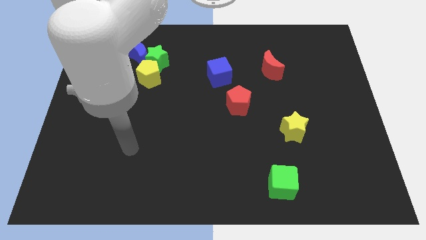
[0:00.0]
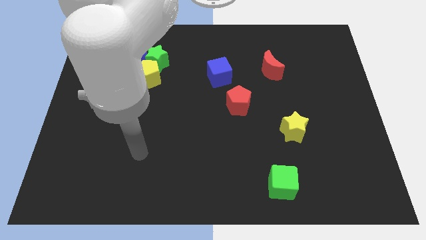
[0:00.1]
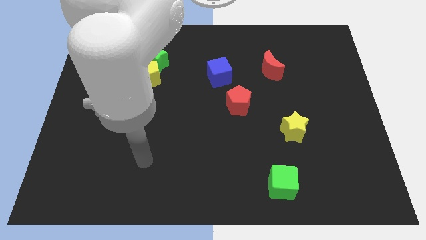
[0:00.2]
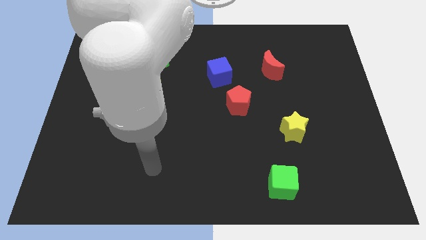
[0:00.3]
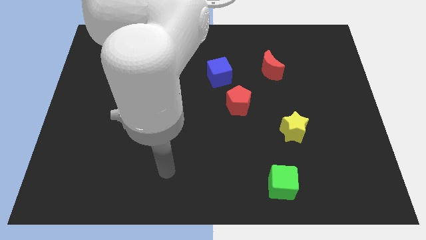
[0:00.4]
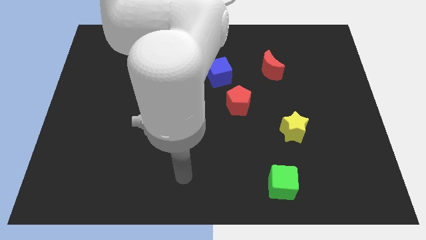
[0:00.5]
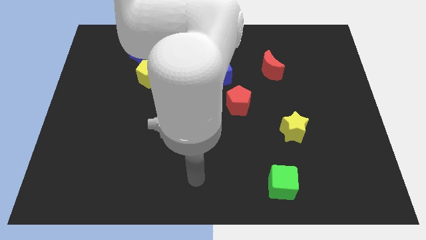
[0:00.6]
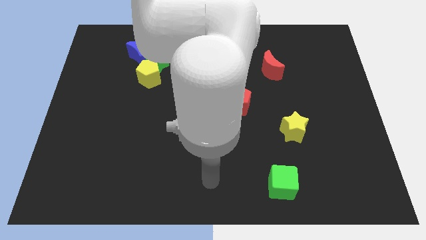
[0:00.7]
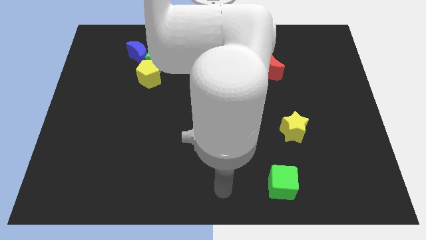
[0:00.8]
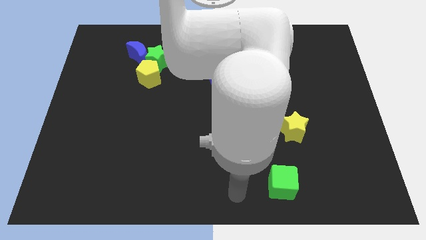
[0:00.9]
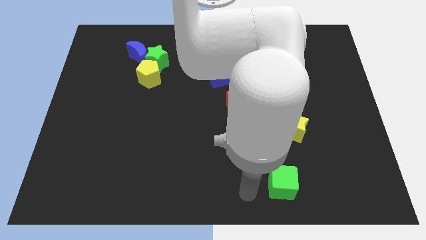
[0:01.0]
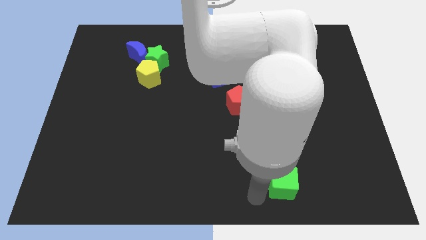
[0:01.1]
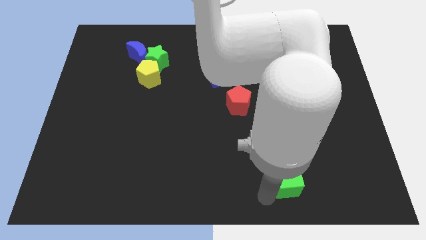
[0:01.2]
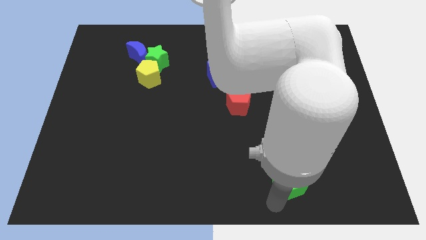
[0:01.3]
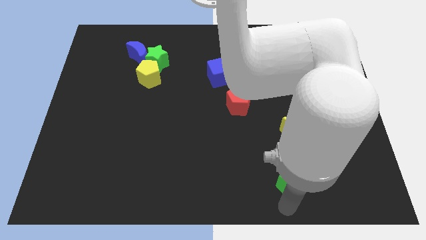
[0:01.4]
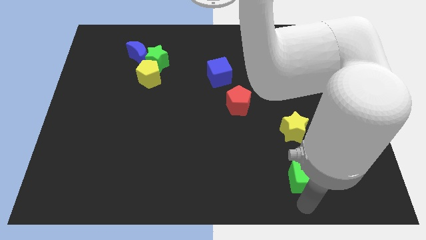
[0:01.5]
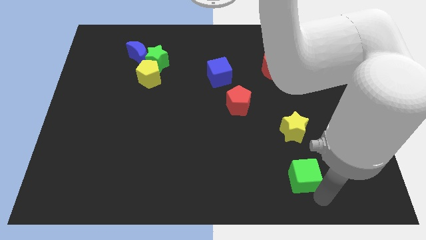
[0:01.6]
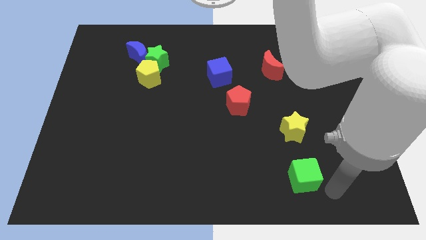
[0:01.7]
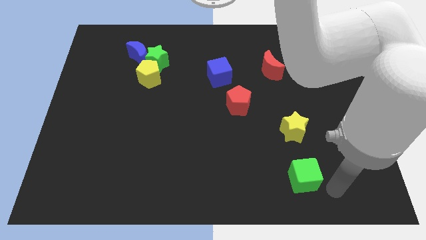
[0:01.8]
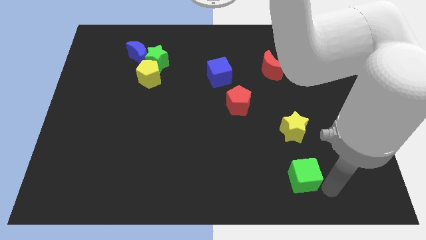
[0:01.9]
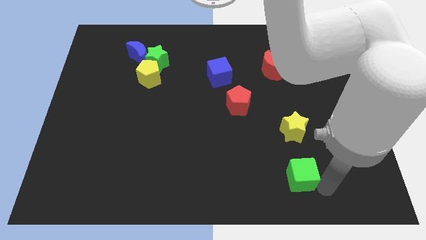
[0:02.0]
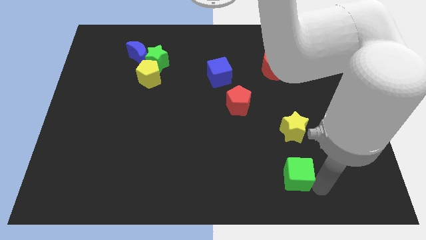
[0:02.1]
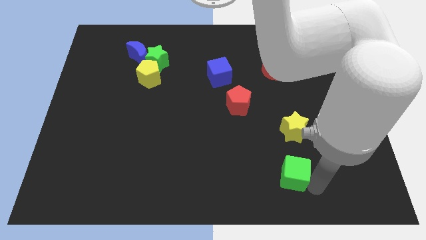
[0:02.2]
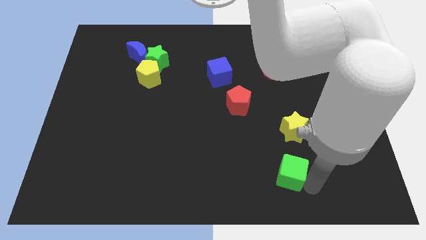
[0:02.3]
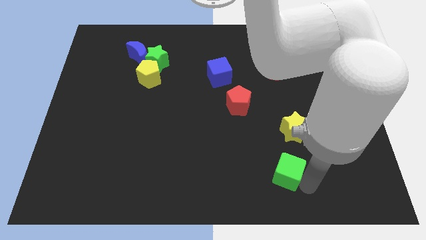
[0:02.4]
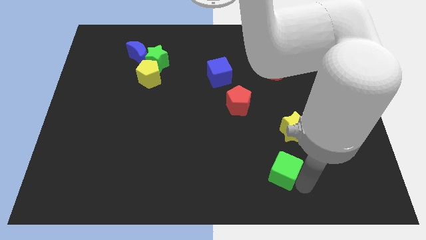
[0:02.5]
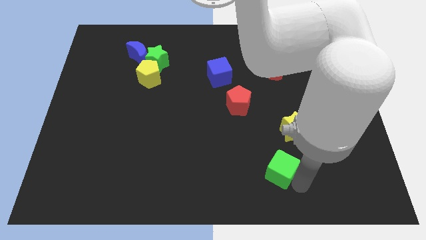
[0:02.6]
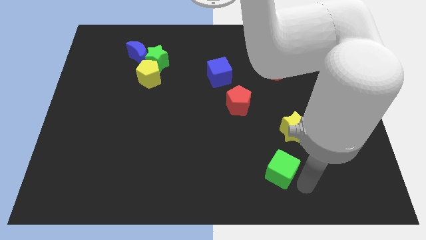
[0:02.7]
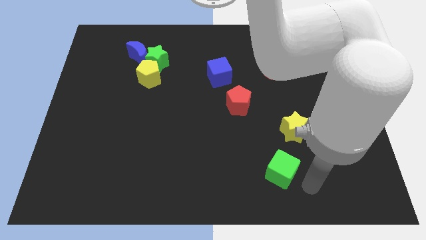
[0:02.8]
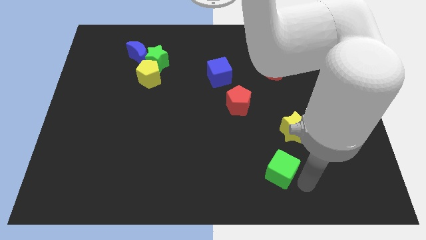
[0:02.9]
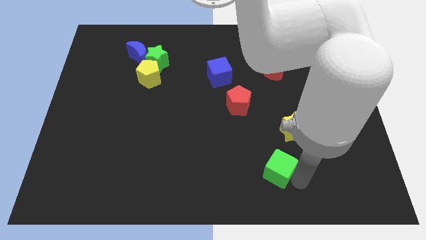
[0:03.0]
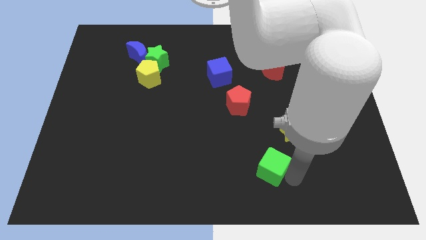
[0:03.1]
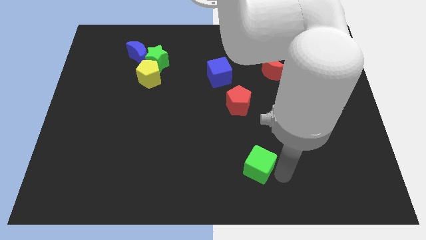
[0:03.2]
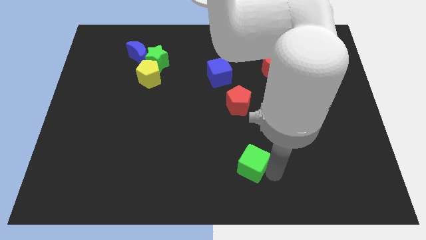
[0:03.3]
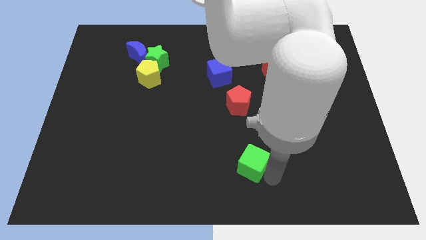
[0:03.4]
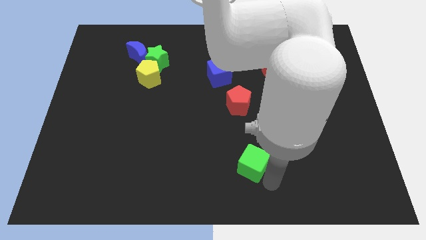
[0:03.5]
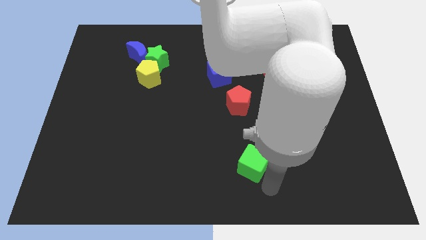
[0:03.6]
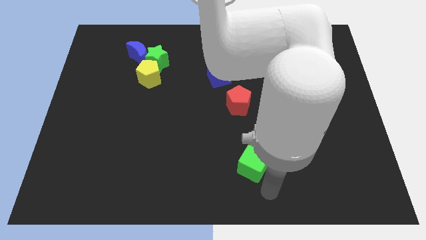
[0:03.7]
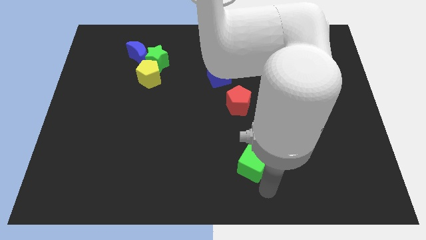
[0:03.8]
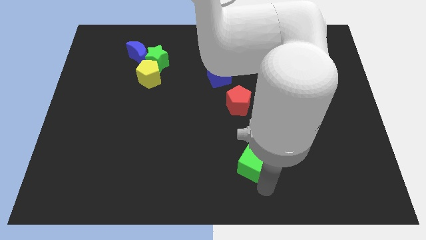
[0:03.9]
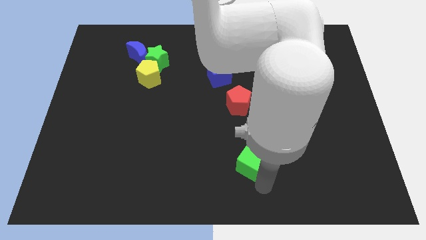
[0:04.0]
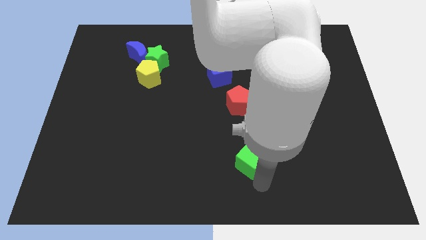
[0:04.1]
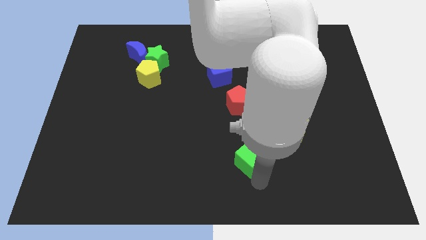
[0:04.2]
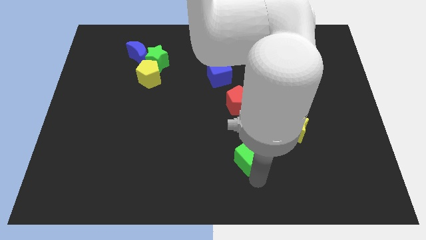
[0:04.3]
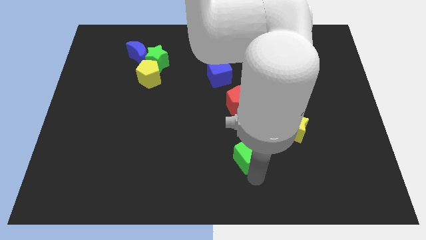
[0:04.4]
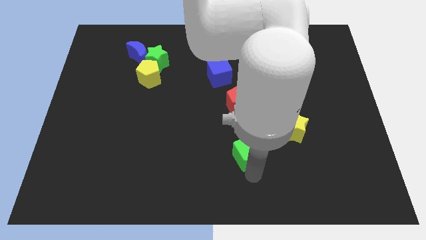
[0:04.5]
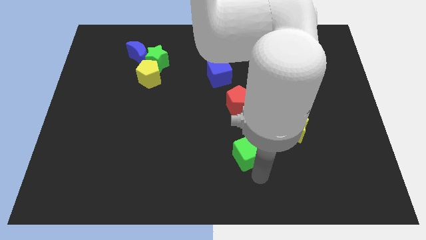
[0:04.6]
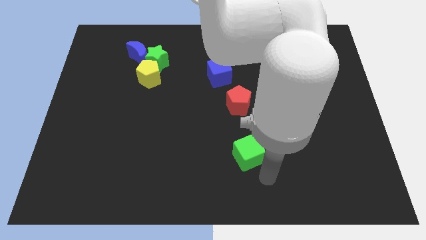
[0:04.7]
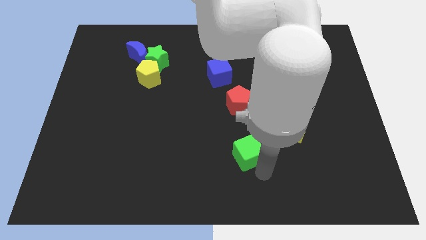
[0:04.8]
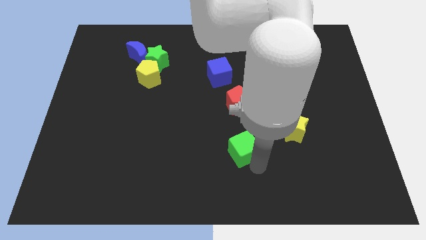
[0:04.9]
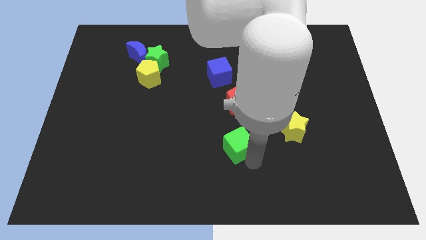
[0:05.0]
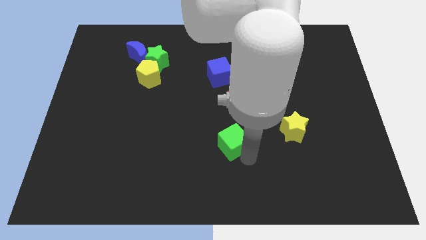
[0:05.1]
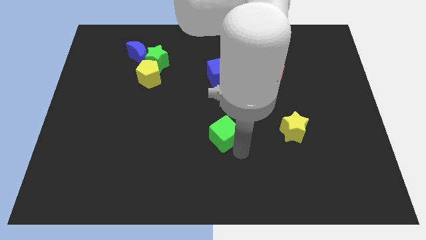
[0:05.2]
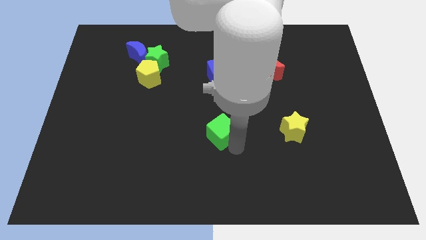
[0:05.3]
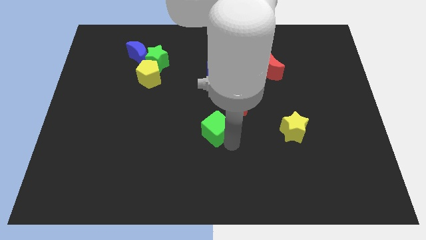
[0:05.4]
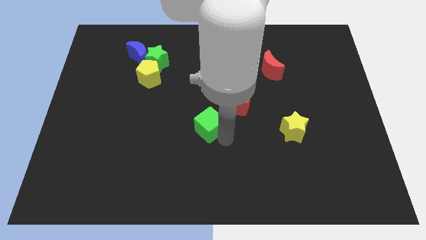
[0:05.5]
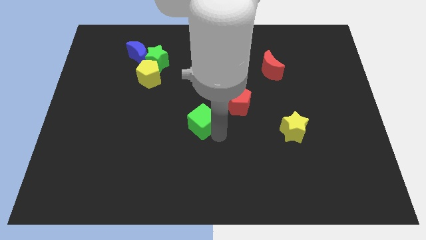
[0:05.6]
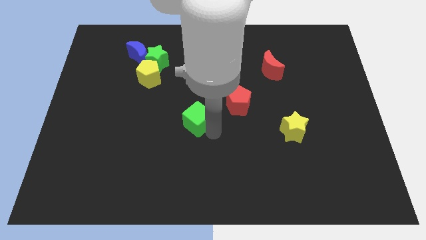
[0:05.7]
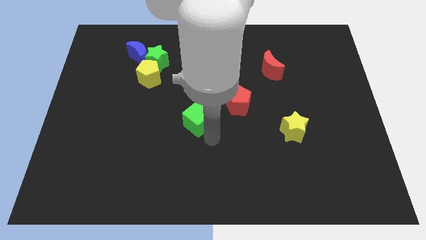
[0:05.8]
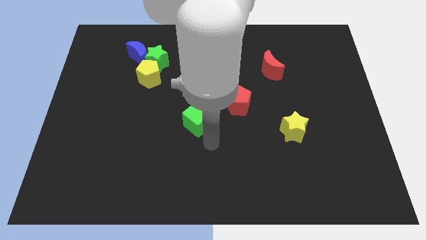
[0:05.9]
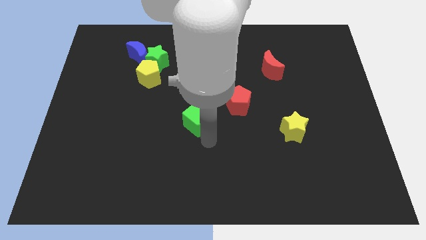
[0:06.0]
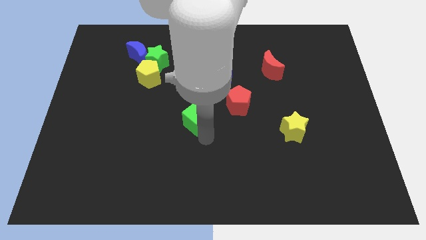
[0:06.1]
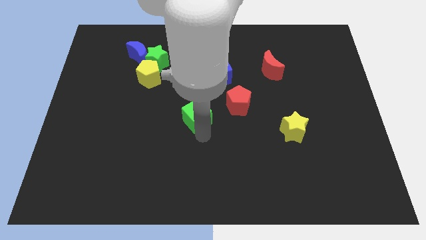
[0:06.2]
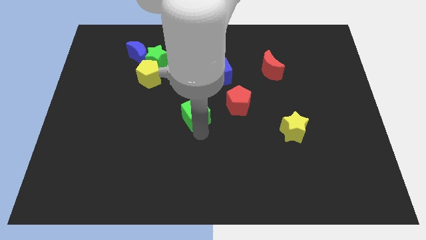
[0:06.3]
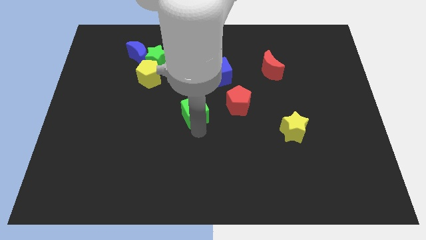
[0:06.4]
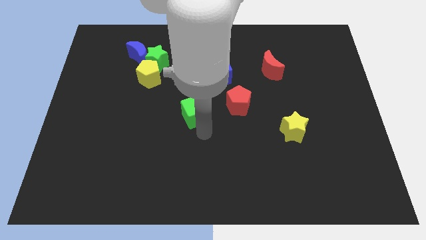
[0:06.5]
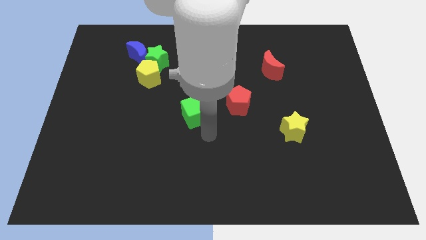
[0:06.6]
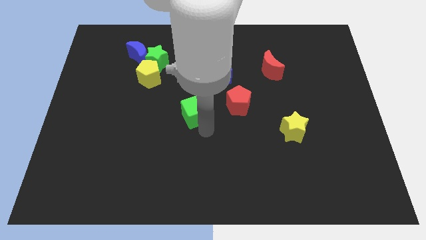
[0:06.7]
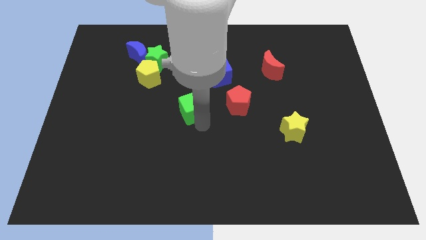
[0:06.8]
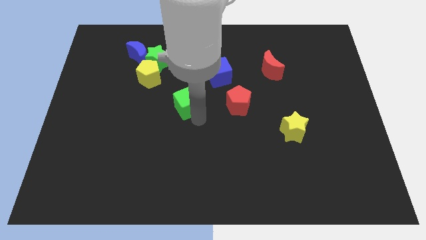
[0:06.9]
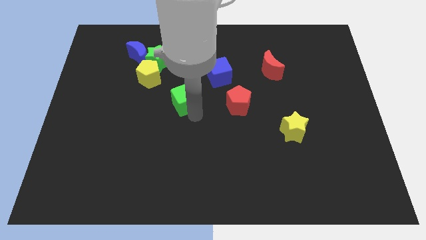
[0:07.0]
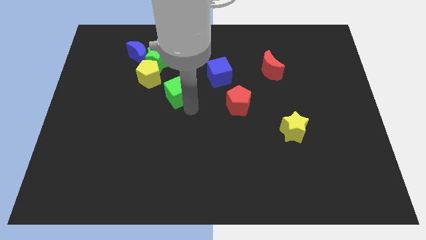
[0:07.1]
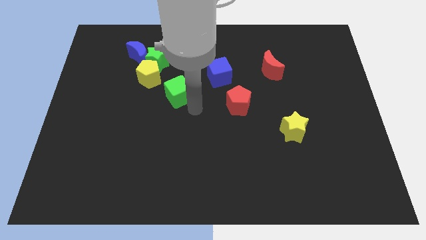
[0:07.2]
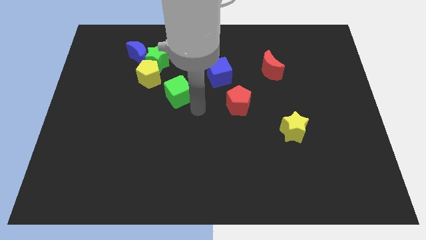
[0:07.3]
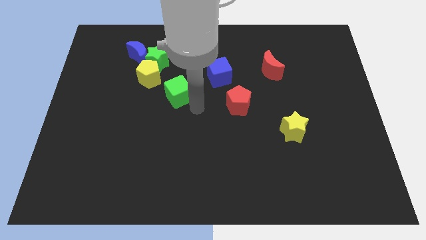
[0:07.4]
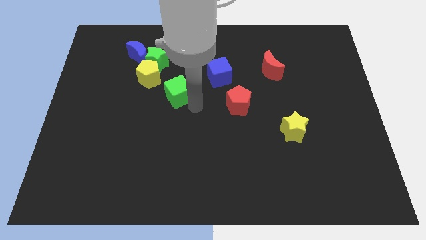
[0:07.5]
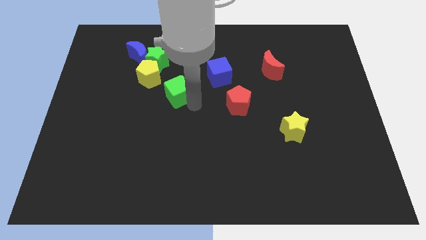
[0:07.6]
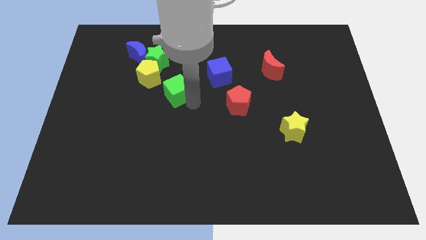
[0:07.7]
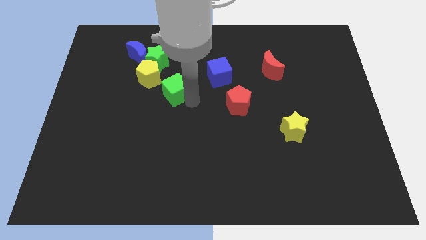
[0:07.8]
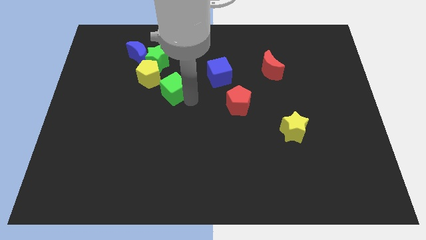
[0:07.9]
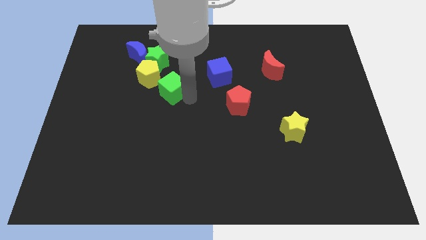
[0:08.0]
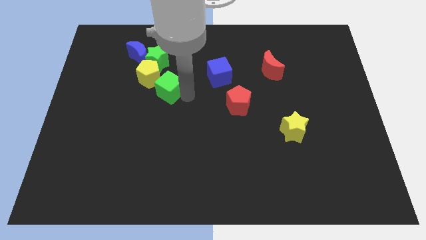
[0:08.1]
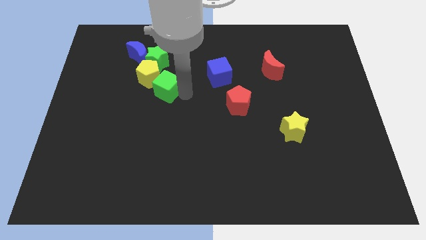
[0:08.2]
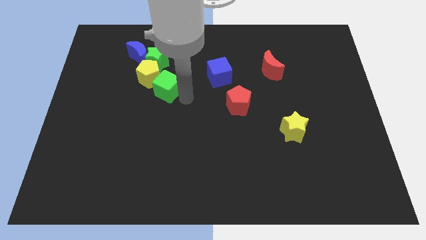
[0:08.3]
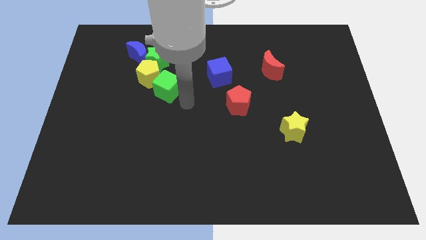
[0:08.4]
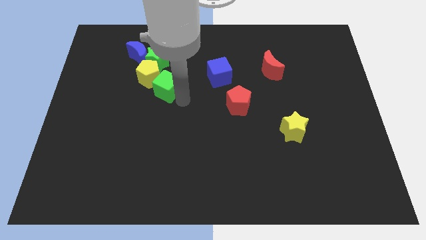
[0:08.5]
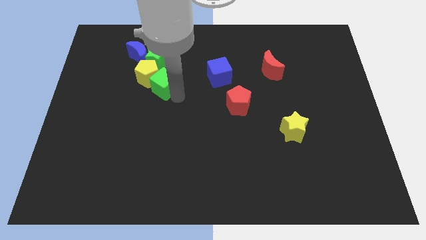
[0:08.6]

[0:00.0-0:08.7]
push the green cube towards the yellow pentagon
